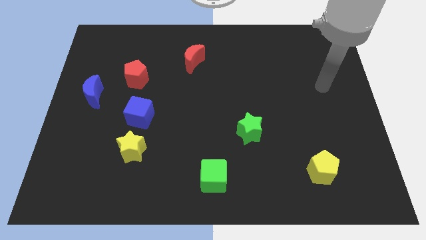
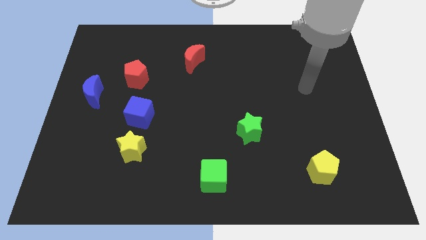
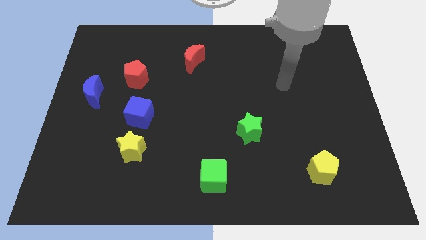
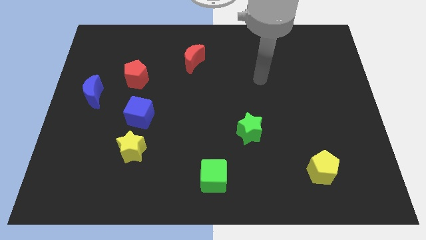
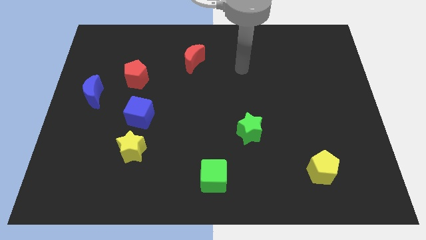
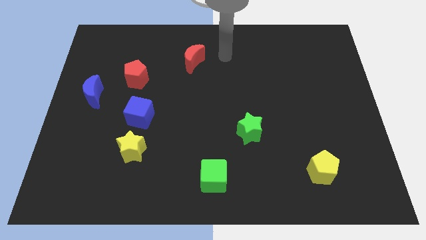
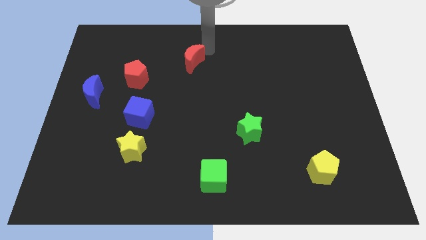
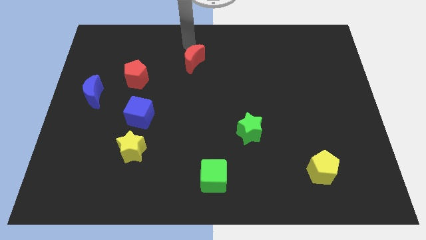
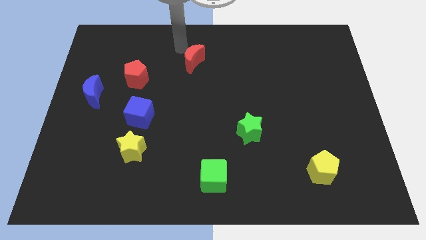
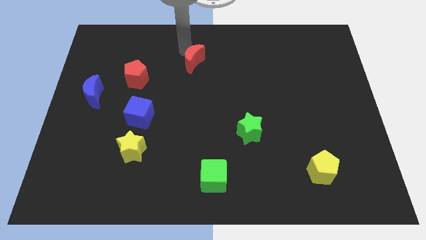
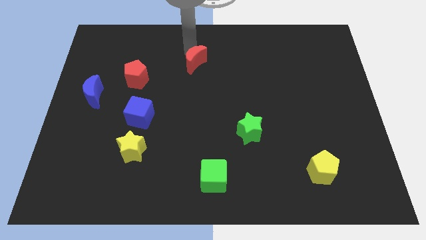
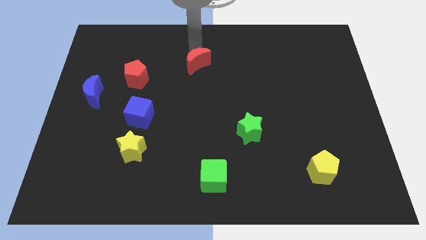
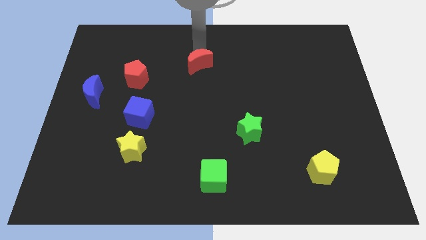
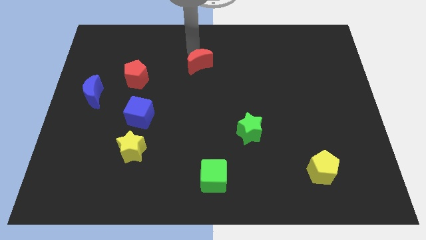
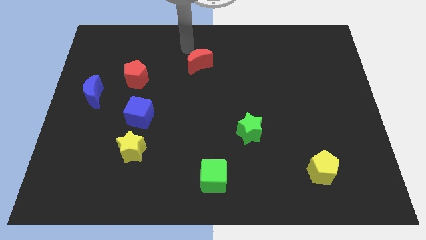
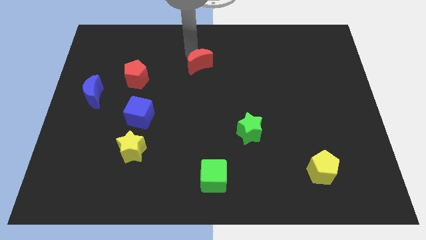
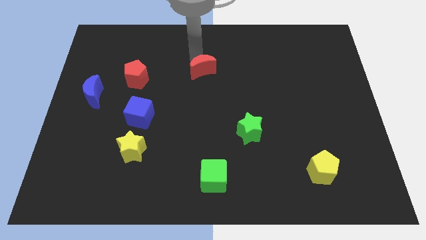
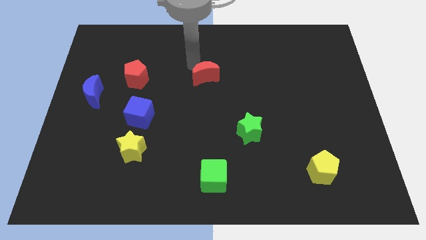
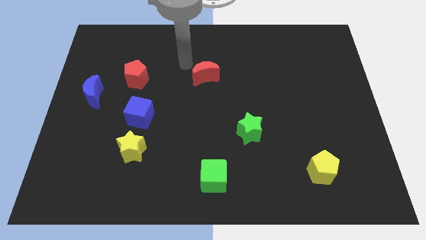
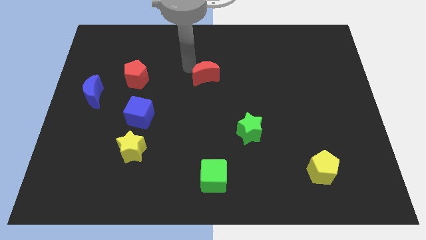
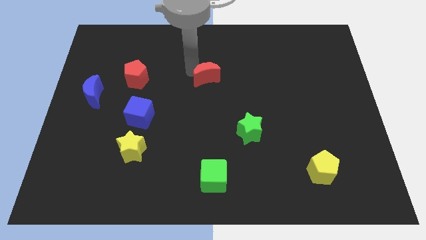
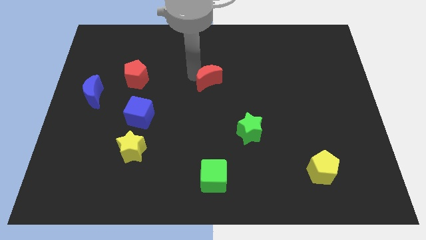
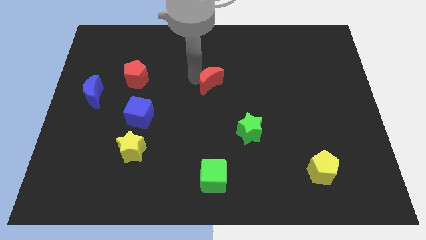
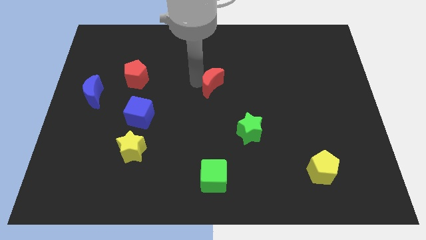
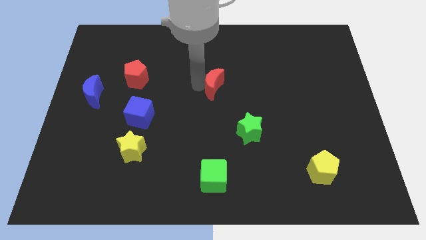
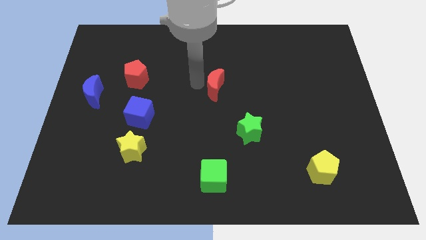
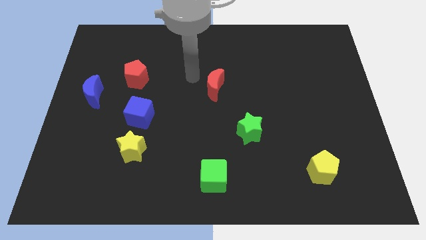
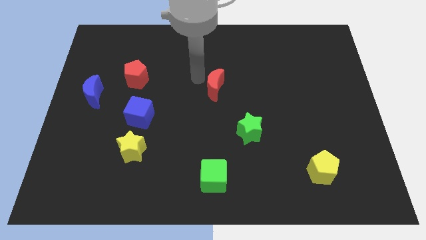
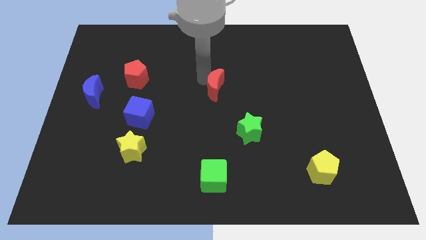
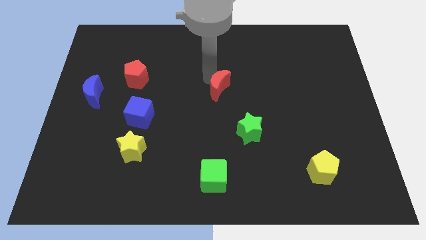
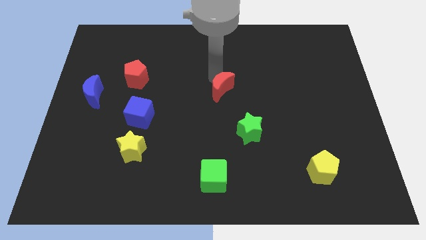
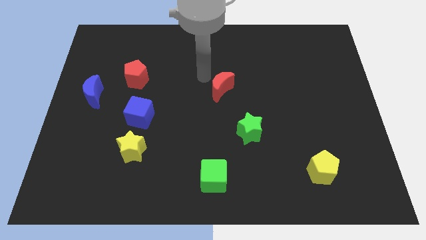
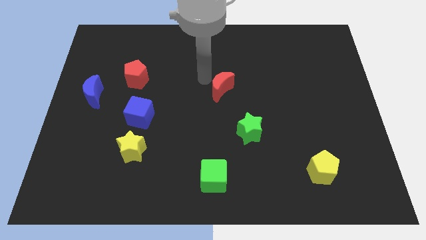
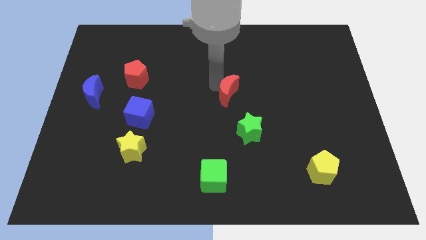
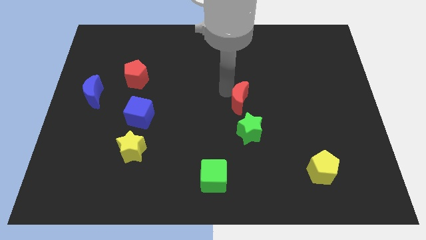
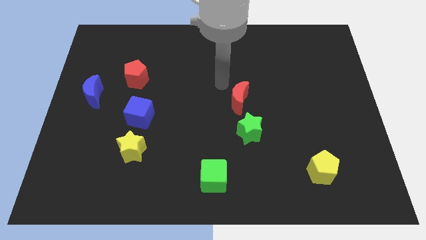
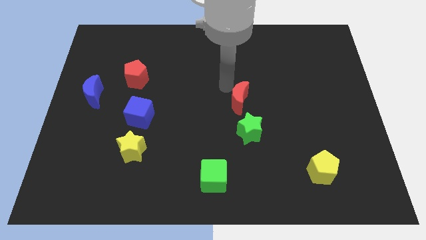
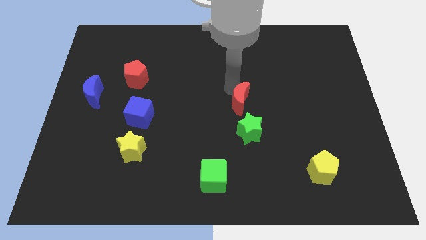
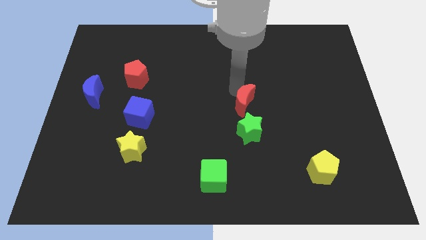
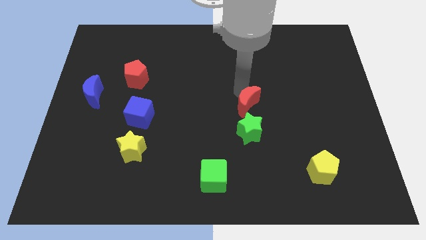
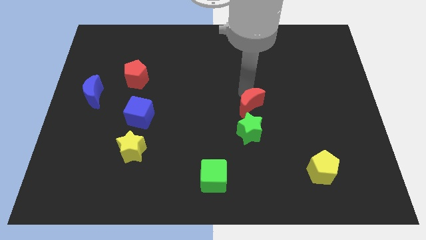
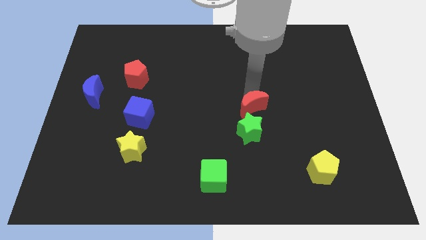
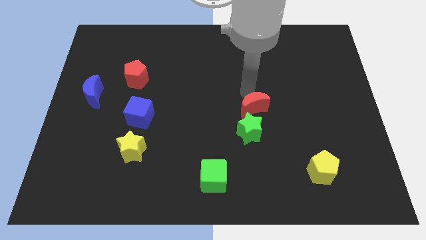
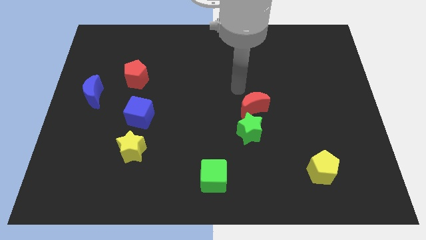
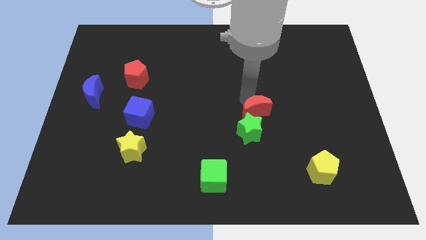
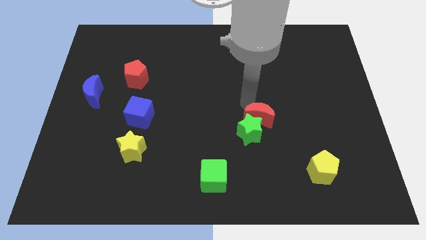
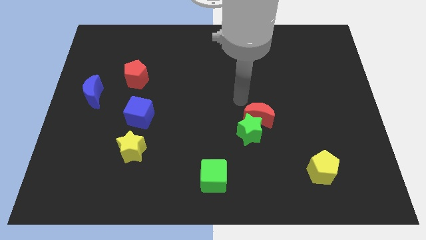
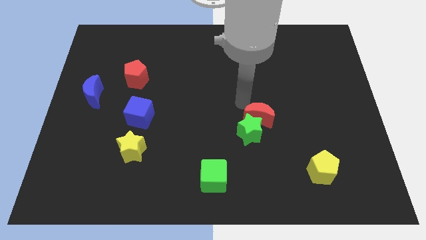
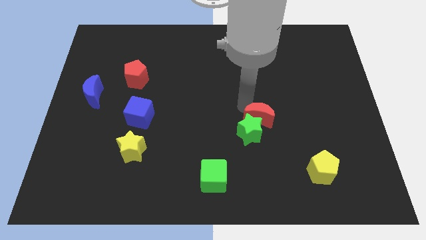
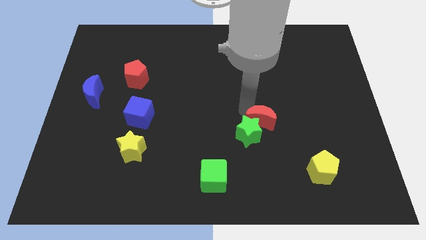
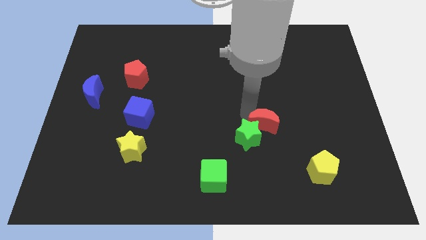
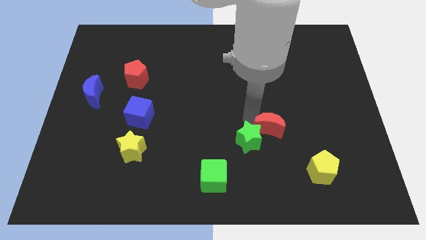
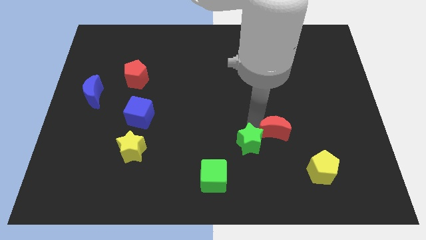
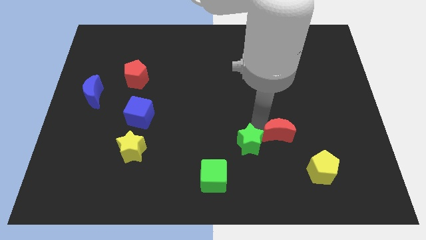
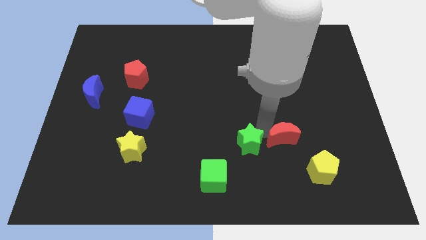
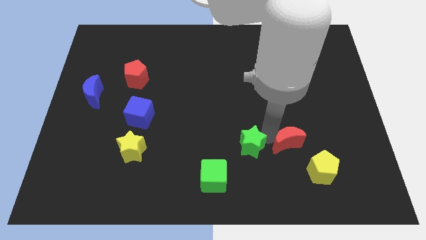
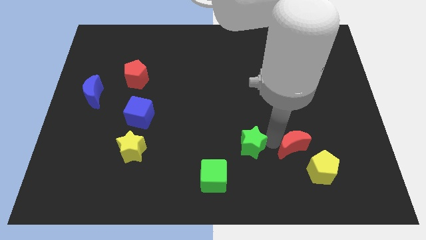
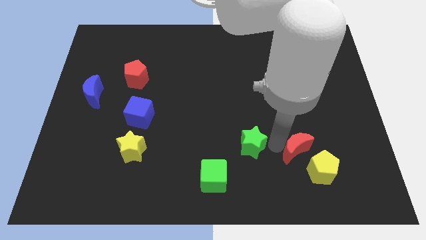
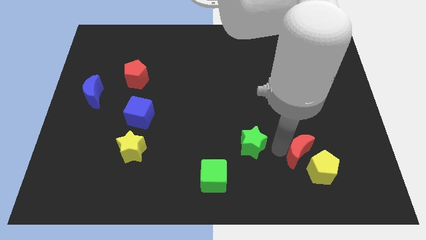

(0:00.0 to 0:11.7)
move the red moon towards the yellow pentagon

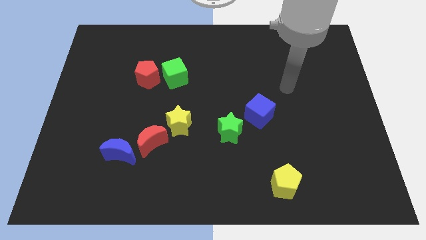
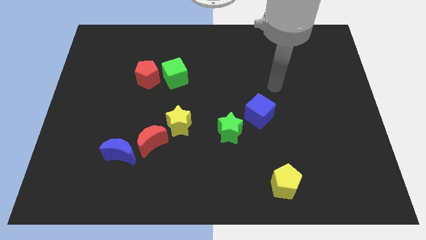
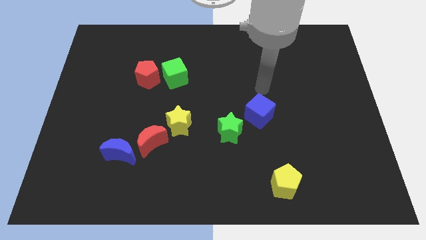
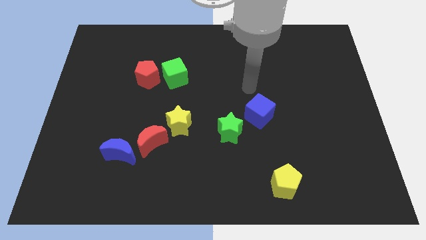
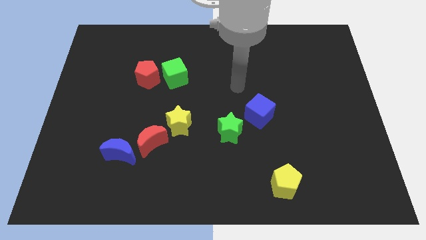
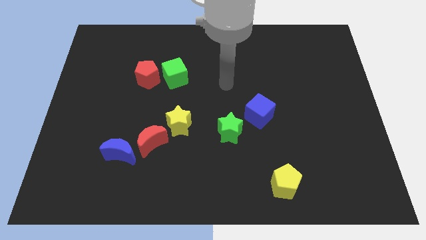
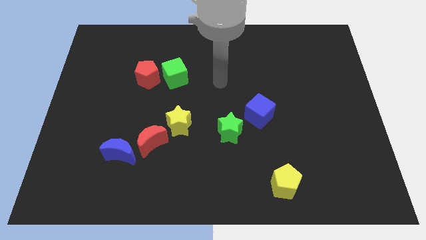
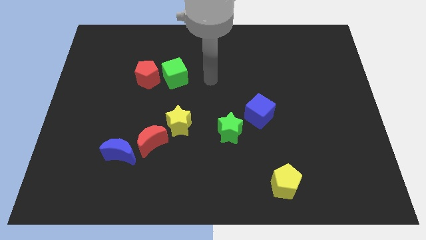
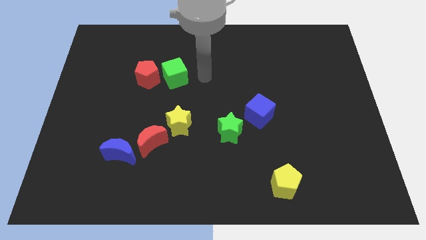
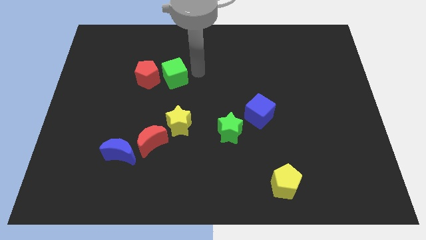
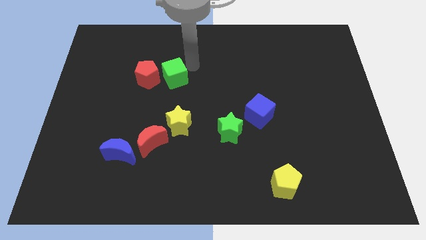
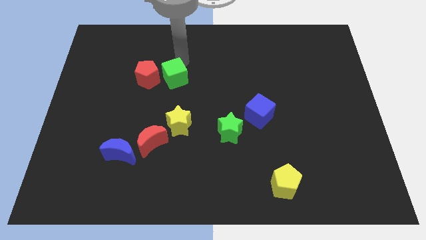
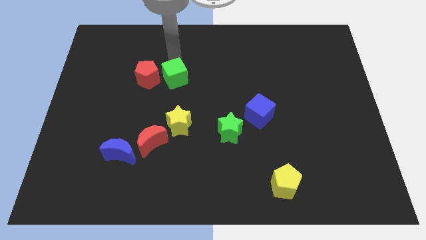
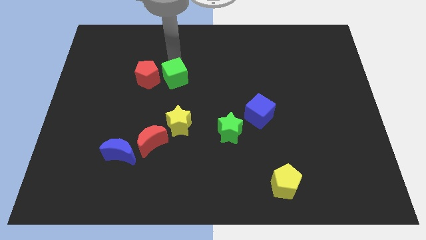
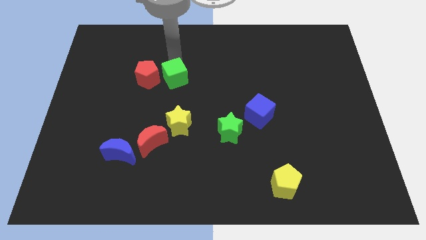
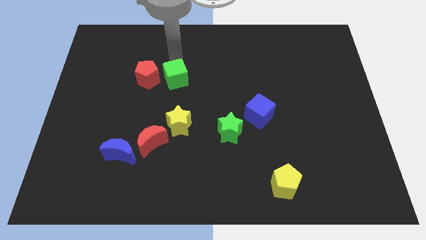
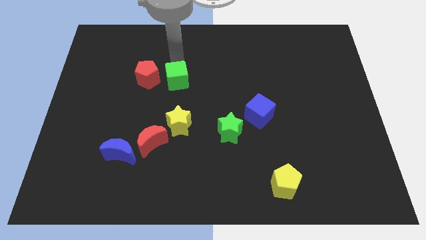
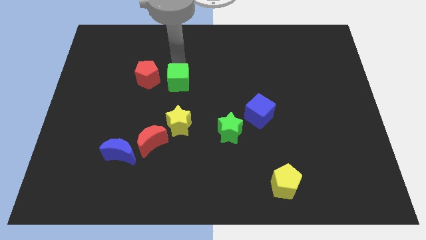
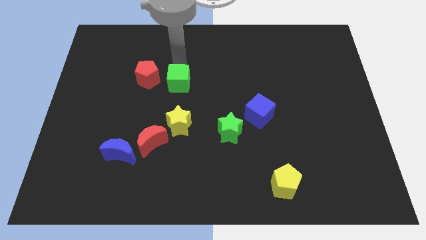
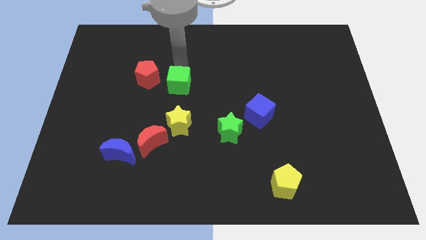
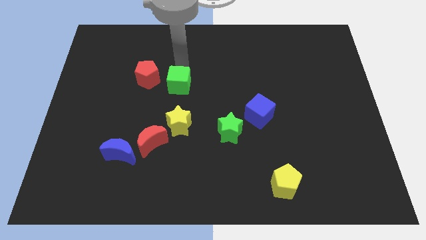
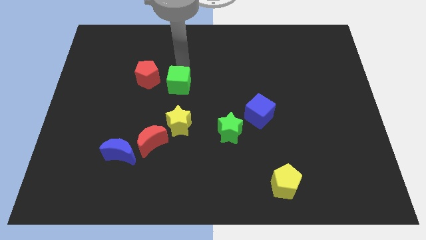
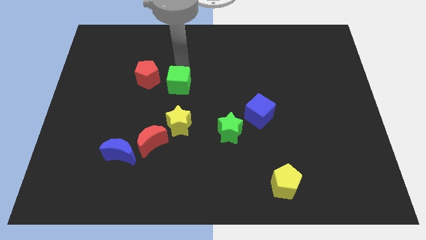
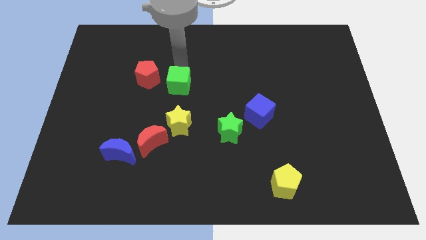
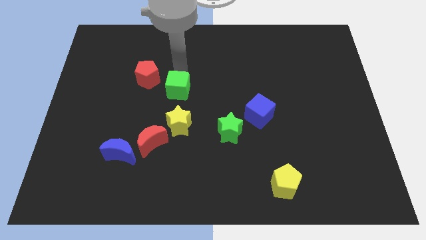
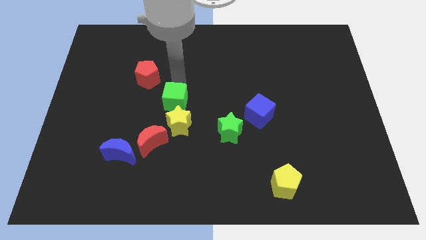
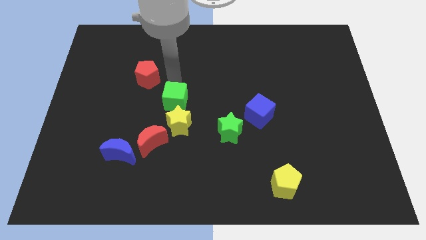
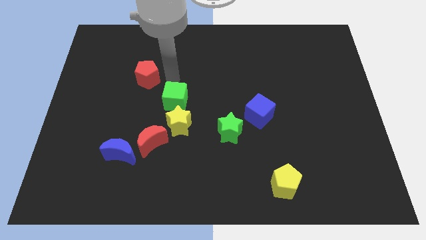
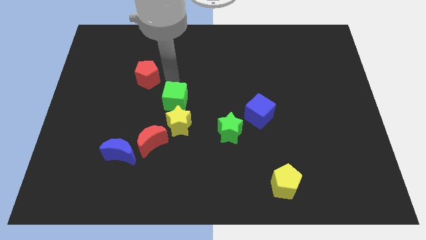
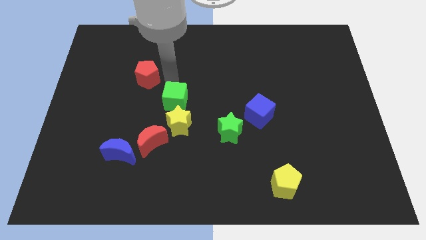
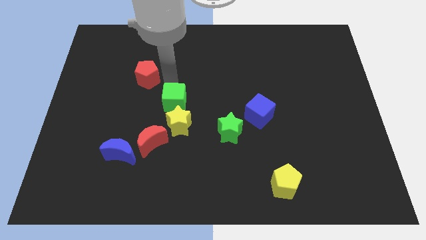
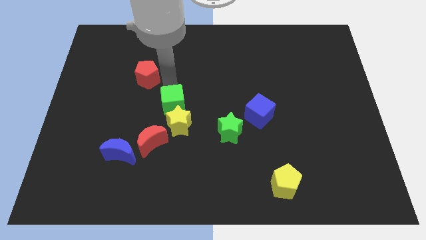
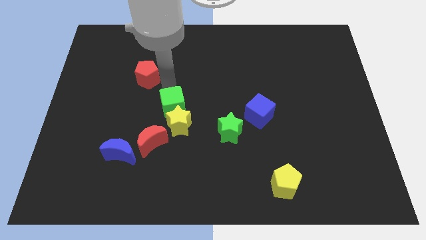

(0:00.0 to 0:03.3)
move the green cube close to the yellow star
